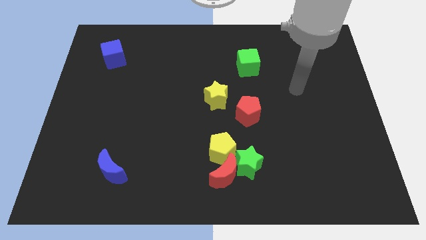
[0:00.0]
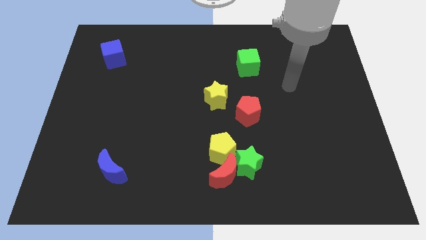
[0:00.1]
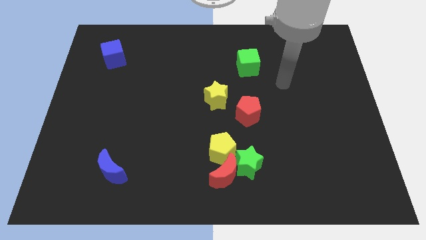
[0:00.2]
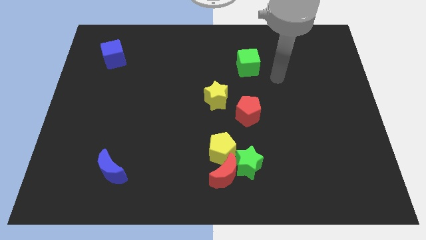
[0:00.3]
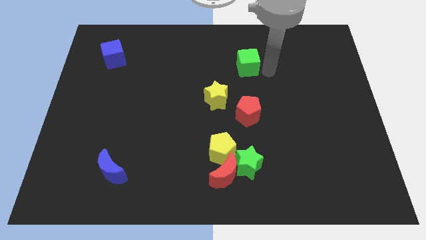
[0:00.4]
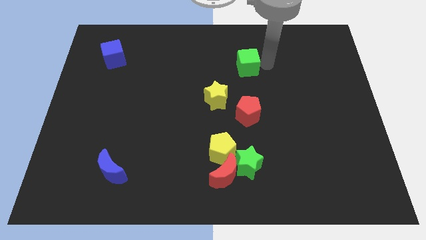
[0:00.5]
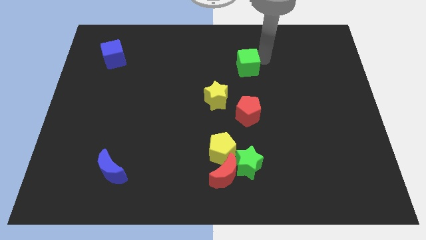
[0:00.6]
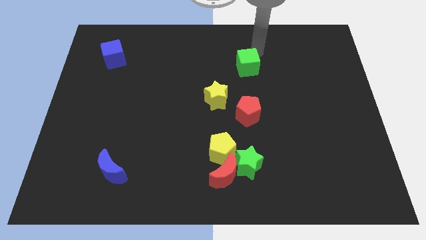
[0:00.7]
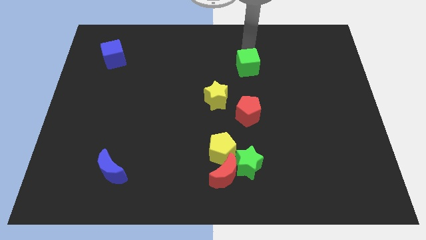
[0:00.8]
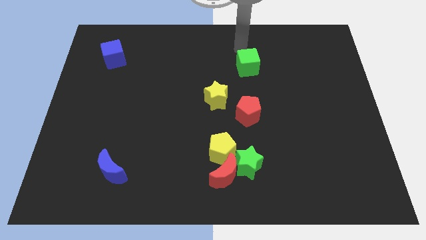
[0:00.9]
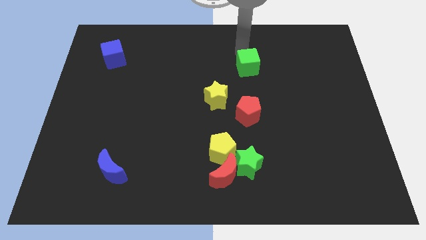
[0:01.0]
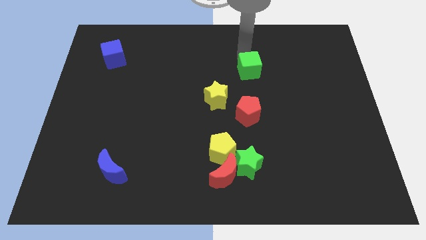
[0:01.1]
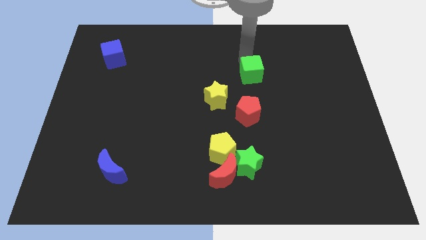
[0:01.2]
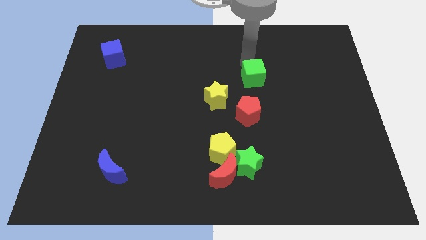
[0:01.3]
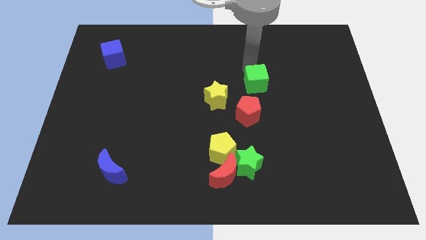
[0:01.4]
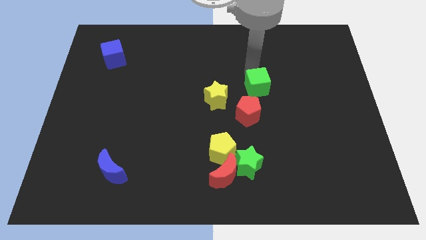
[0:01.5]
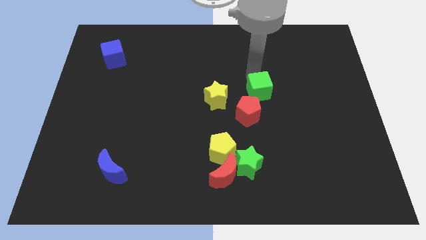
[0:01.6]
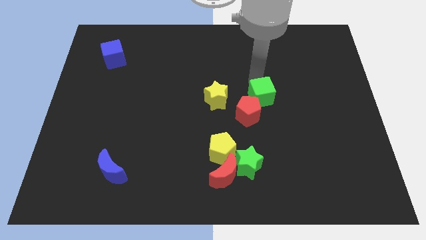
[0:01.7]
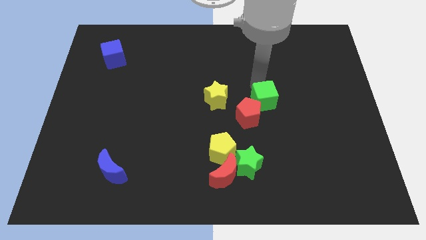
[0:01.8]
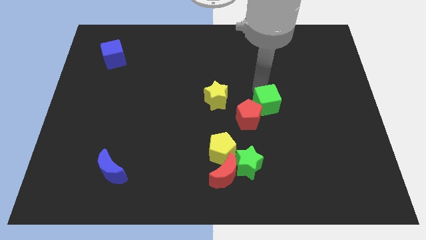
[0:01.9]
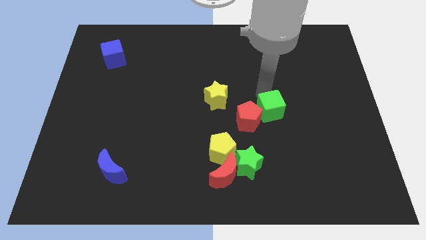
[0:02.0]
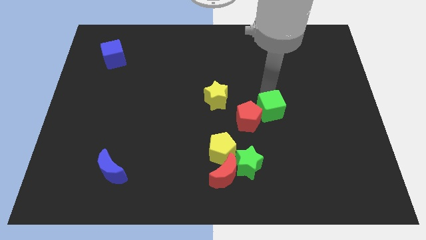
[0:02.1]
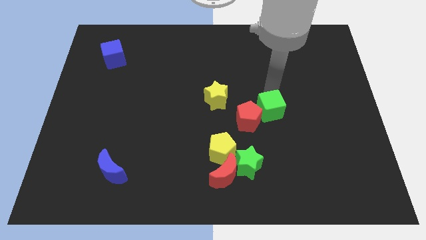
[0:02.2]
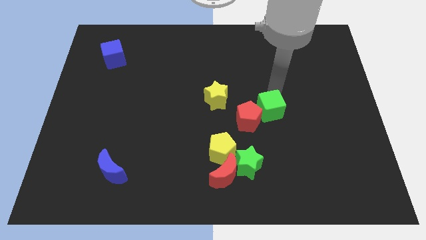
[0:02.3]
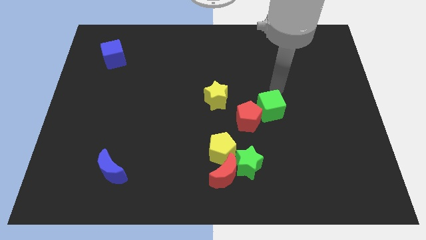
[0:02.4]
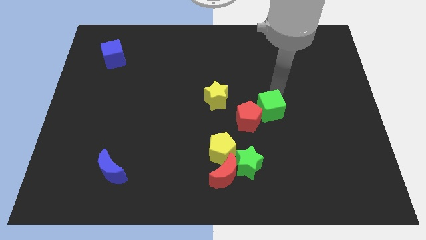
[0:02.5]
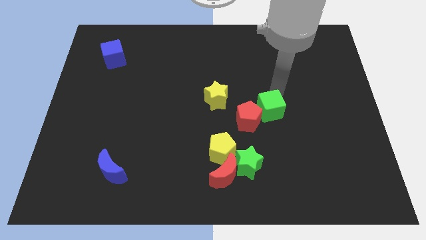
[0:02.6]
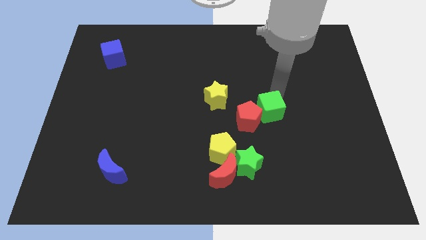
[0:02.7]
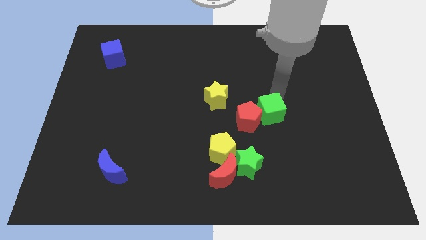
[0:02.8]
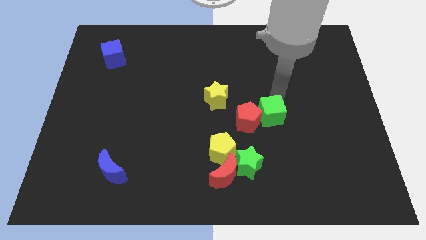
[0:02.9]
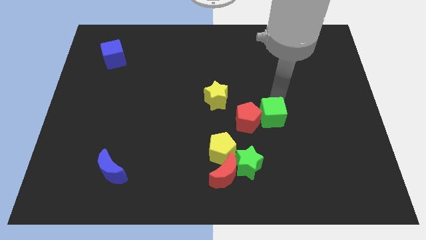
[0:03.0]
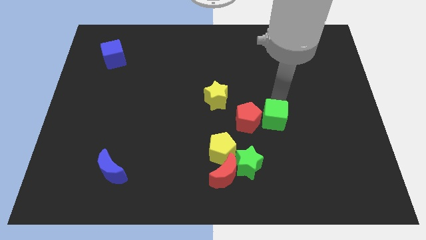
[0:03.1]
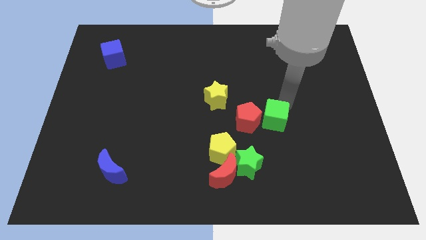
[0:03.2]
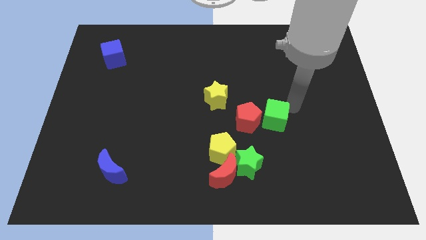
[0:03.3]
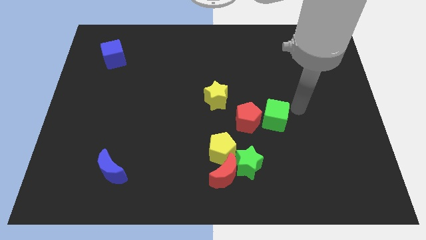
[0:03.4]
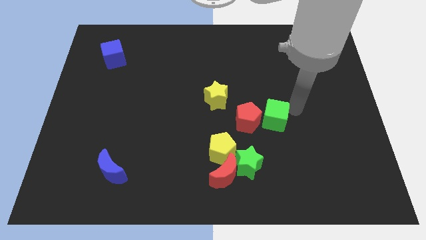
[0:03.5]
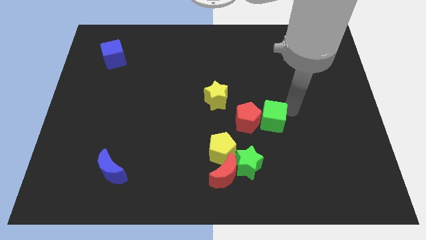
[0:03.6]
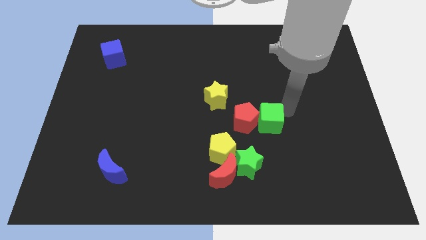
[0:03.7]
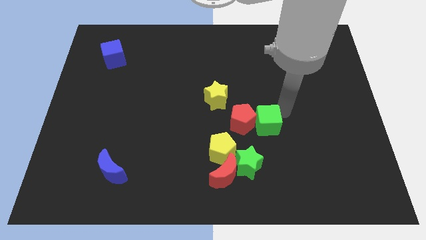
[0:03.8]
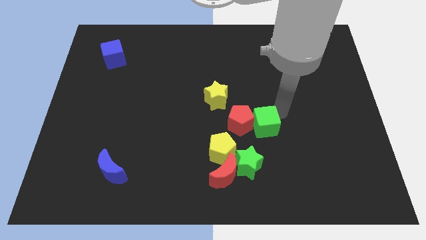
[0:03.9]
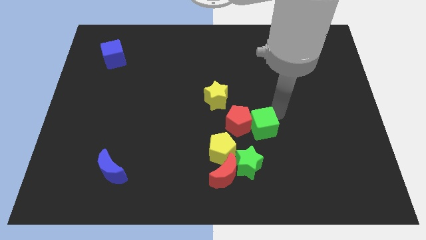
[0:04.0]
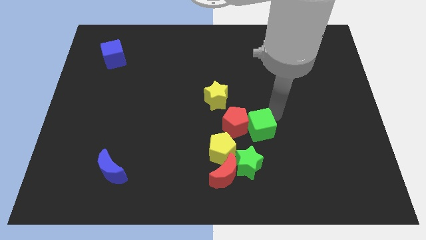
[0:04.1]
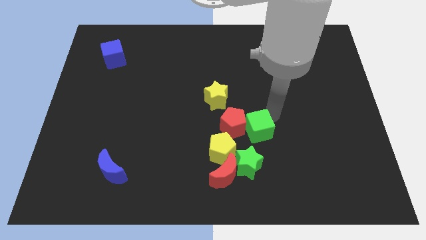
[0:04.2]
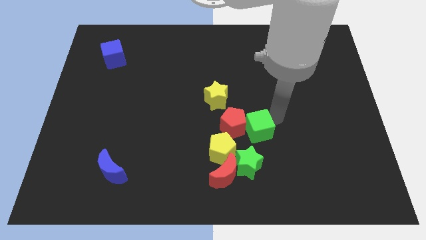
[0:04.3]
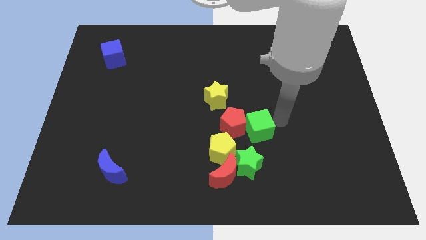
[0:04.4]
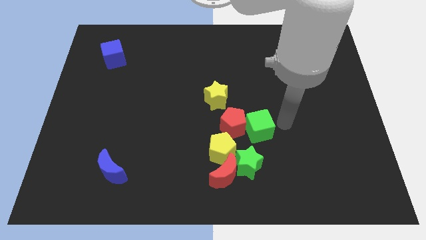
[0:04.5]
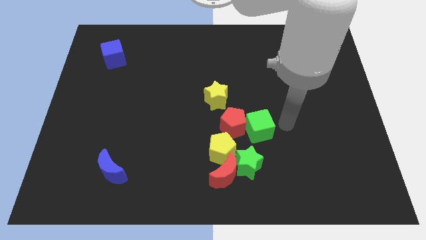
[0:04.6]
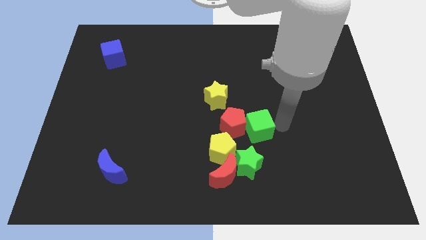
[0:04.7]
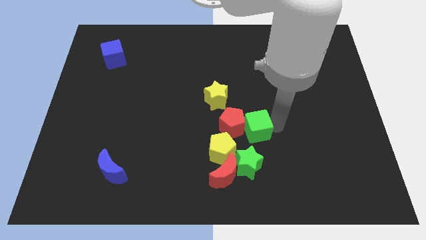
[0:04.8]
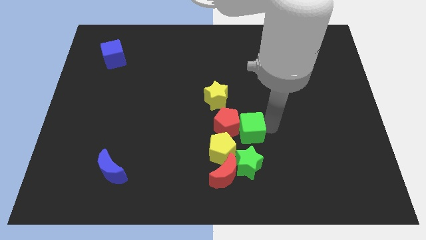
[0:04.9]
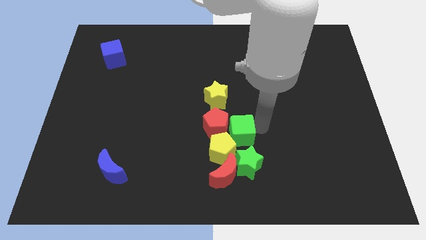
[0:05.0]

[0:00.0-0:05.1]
slide the green cube towards the yellow pentagon

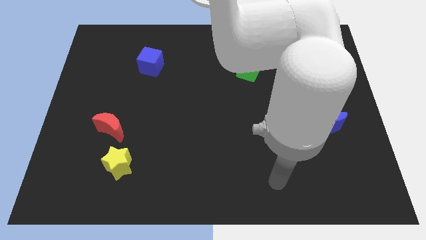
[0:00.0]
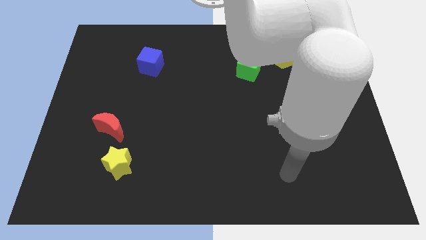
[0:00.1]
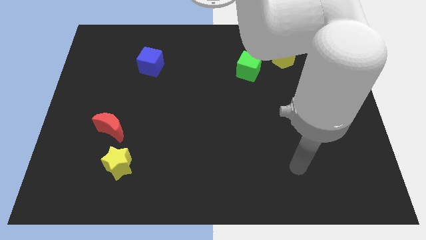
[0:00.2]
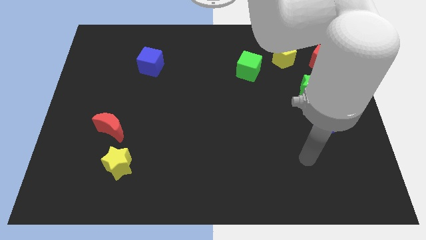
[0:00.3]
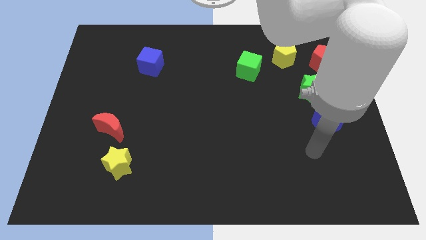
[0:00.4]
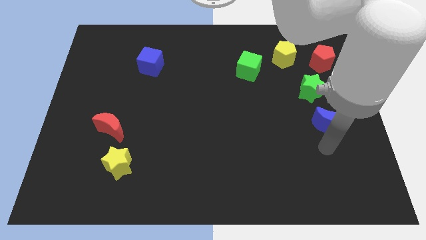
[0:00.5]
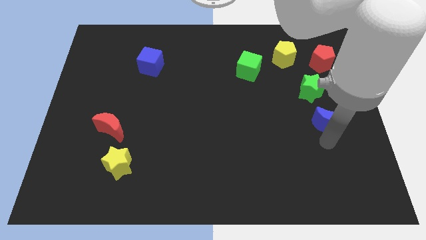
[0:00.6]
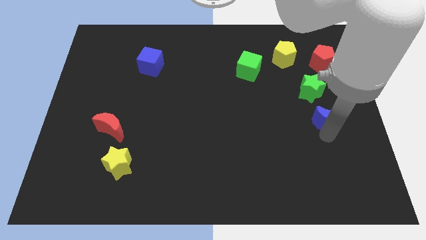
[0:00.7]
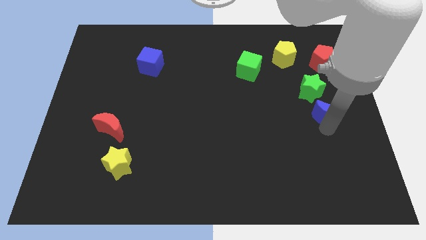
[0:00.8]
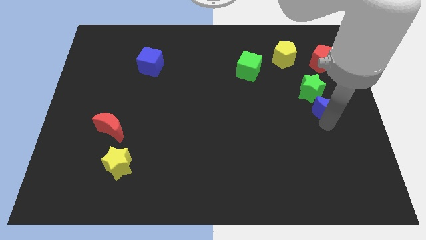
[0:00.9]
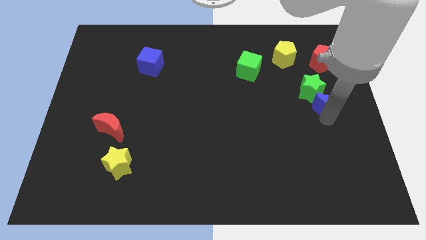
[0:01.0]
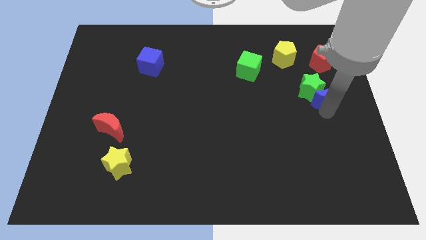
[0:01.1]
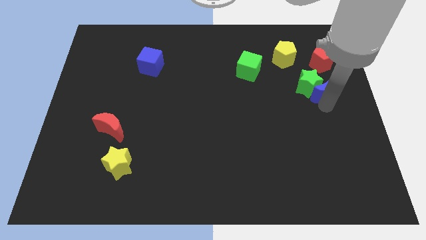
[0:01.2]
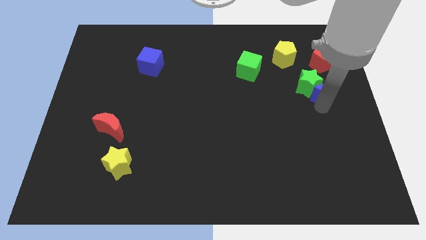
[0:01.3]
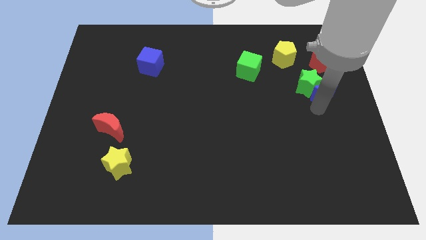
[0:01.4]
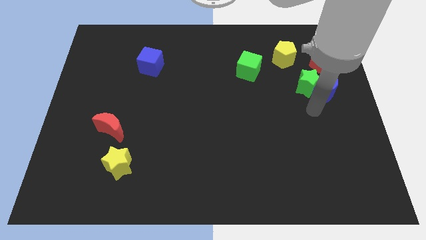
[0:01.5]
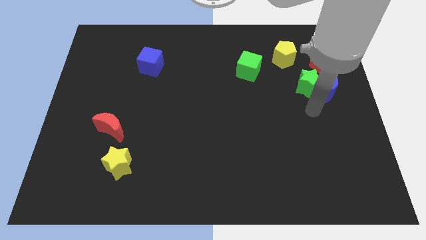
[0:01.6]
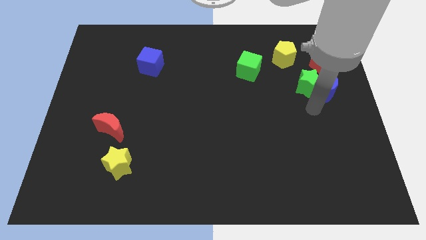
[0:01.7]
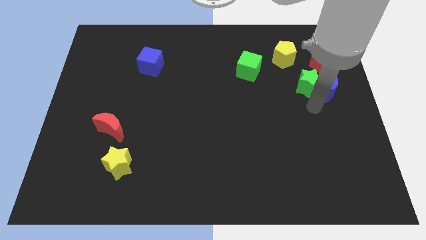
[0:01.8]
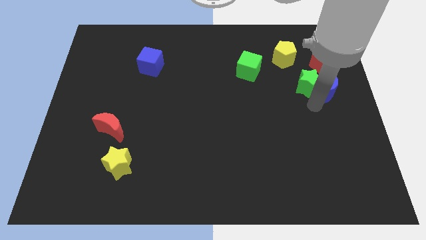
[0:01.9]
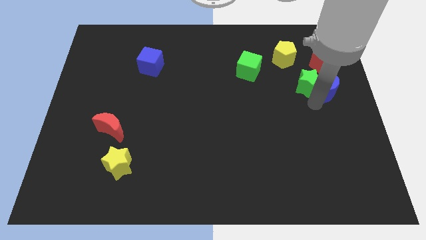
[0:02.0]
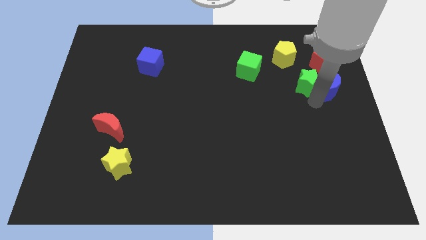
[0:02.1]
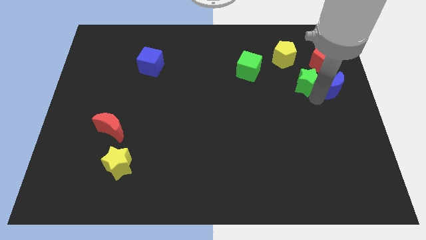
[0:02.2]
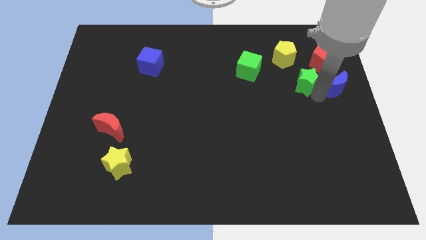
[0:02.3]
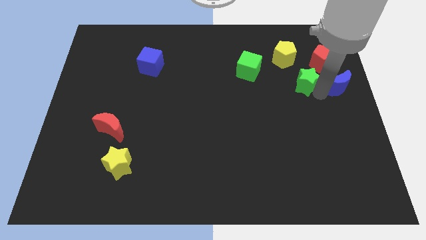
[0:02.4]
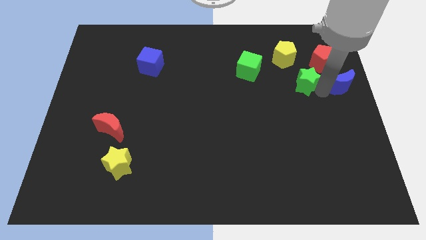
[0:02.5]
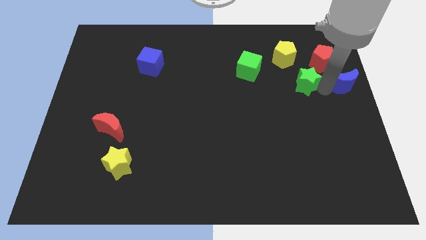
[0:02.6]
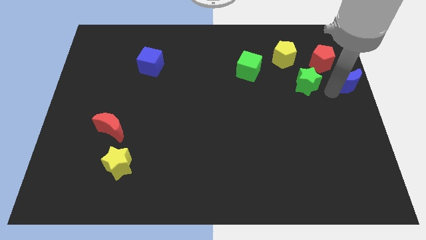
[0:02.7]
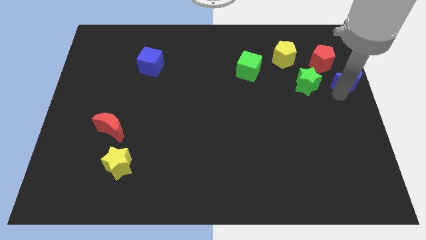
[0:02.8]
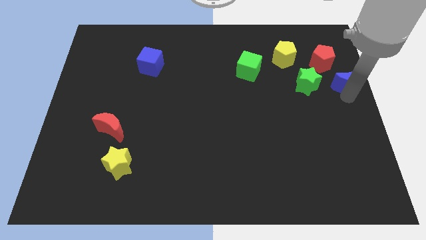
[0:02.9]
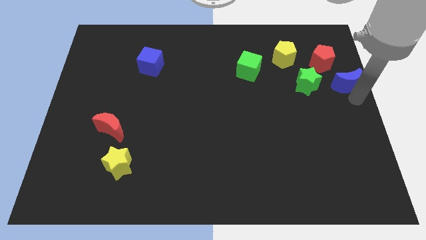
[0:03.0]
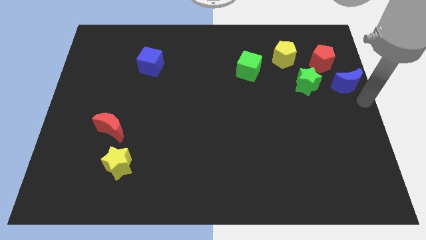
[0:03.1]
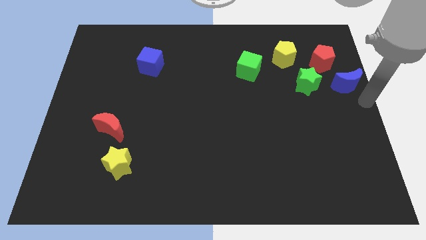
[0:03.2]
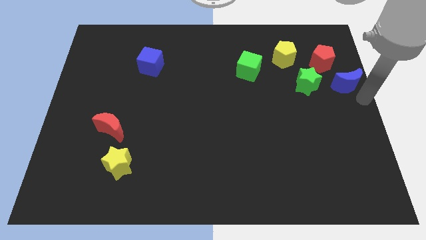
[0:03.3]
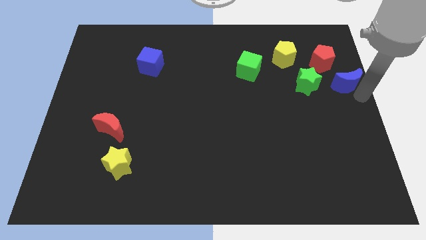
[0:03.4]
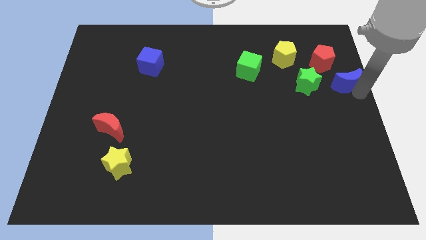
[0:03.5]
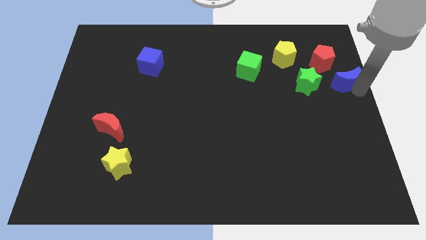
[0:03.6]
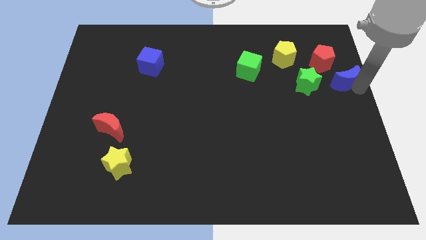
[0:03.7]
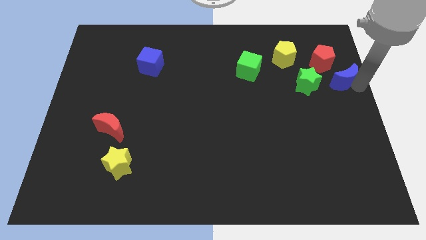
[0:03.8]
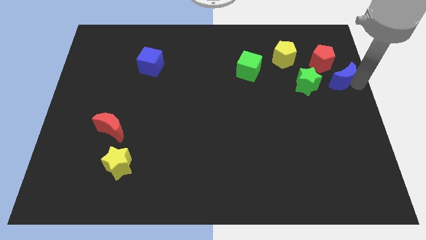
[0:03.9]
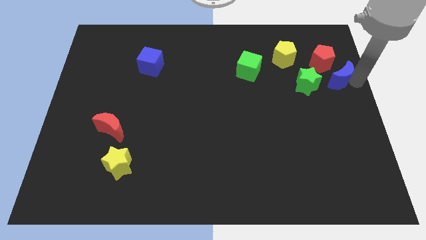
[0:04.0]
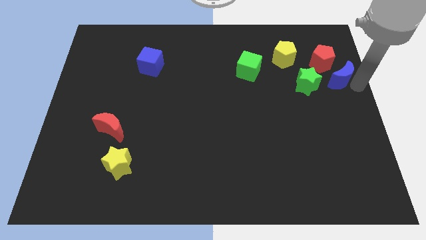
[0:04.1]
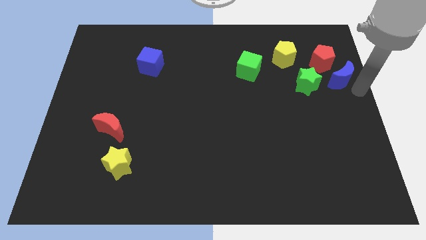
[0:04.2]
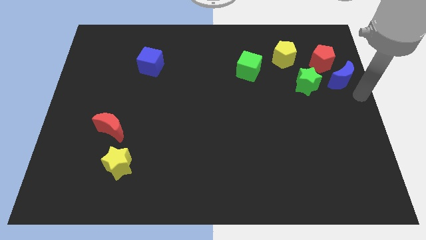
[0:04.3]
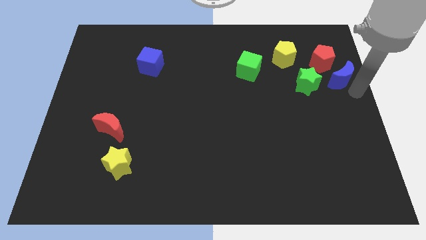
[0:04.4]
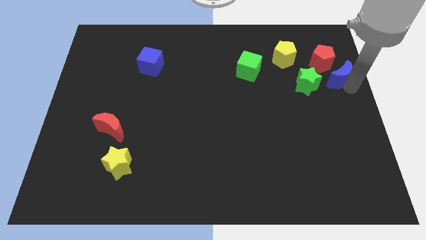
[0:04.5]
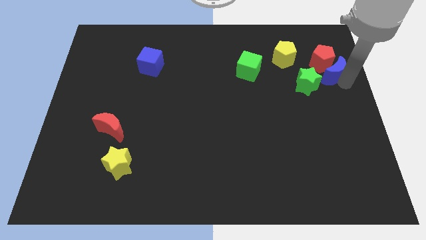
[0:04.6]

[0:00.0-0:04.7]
slide the blue moon towards the red pentagon
